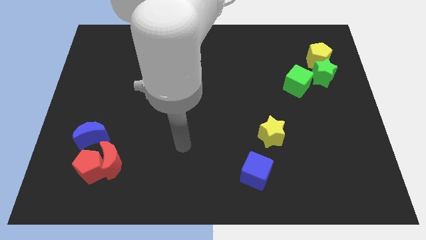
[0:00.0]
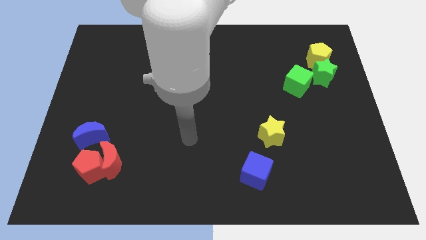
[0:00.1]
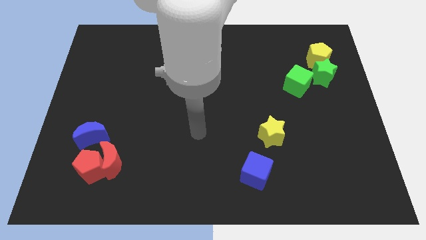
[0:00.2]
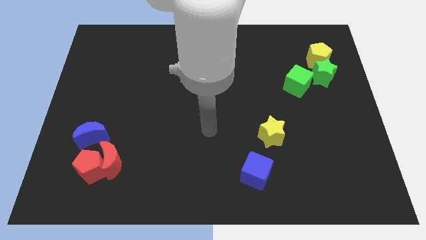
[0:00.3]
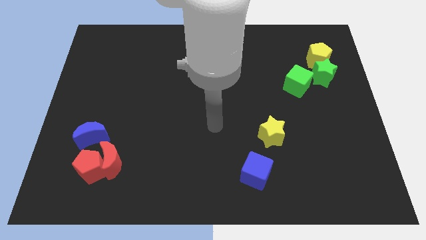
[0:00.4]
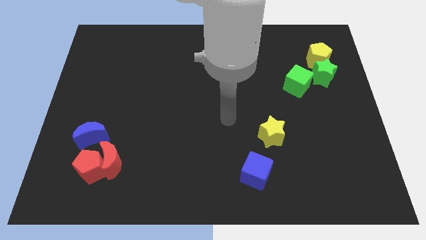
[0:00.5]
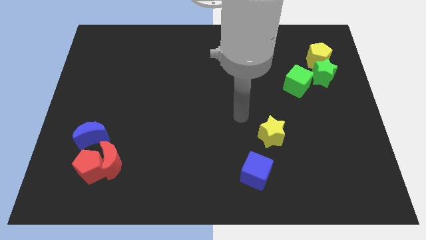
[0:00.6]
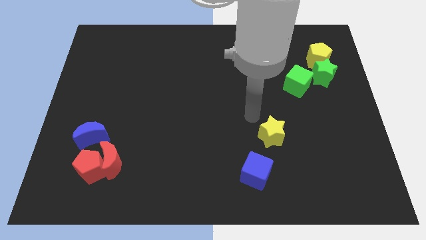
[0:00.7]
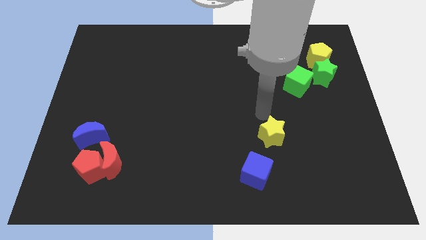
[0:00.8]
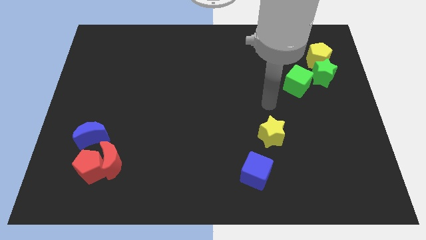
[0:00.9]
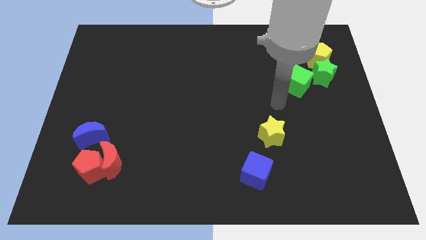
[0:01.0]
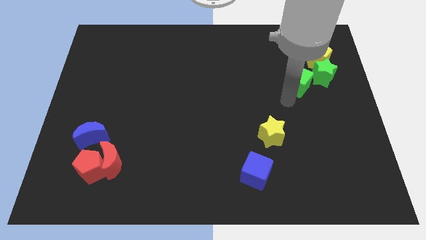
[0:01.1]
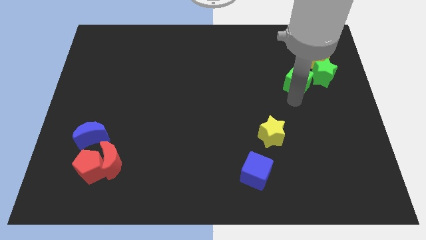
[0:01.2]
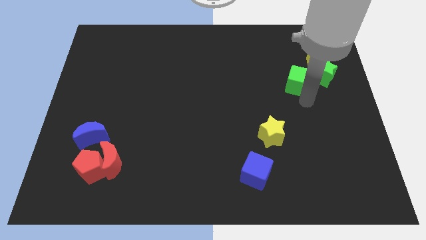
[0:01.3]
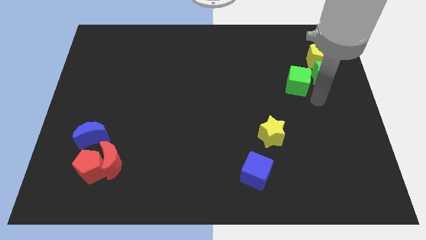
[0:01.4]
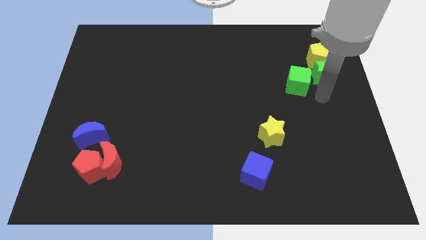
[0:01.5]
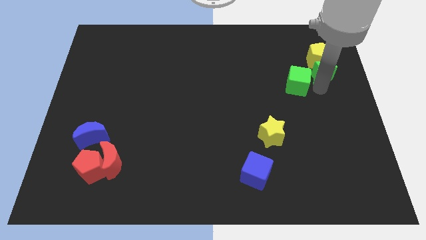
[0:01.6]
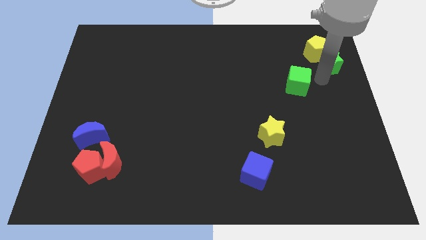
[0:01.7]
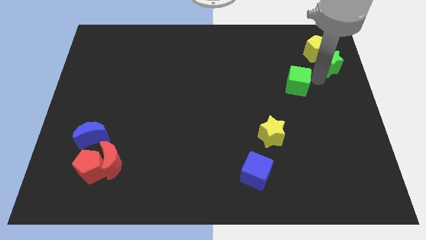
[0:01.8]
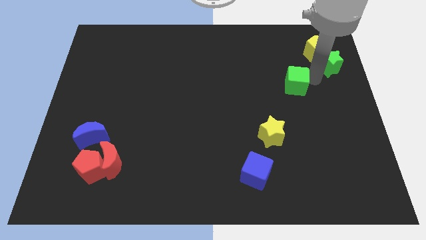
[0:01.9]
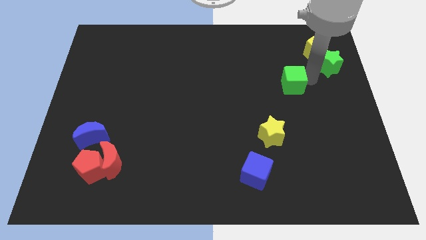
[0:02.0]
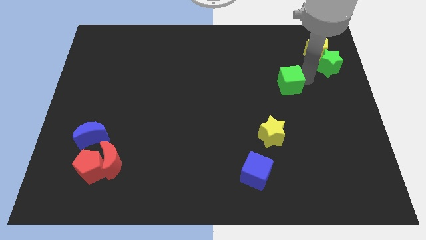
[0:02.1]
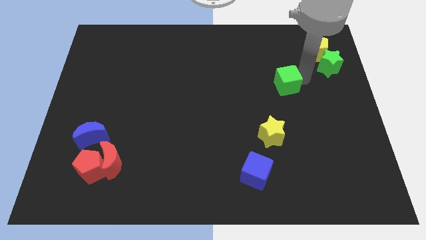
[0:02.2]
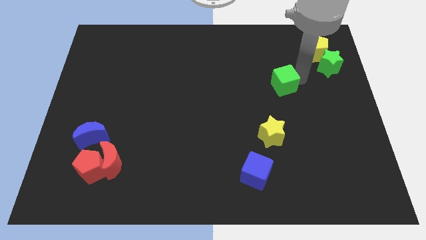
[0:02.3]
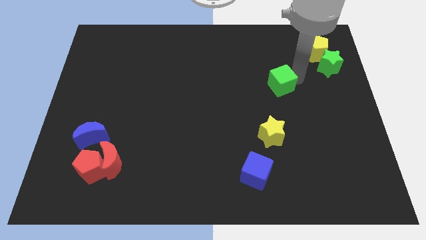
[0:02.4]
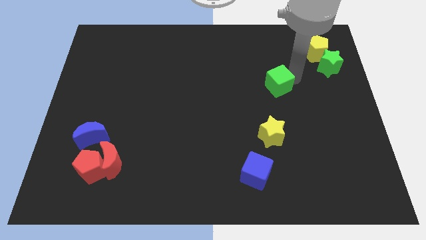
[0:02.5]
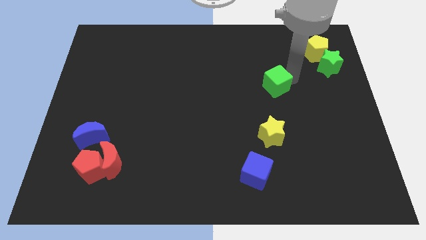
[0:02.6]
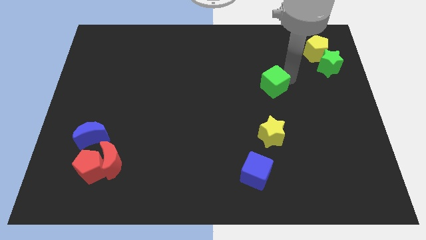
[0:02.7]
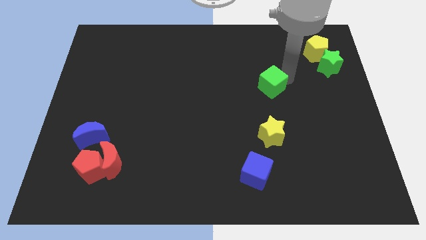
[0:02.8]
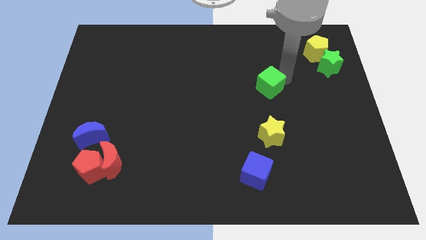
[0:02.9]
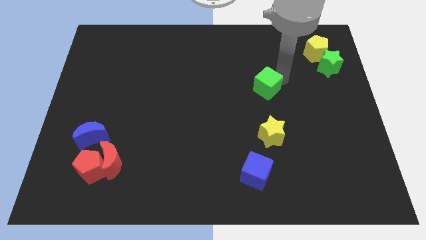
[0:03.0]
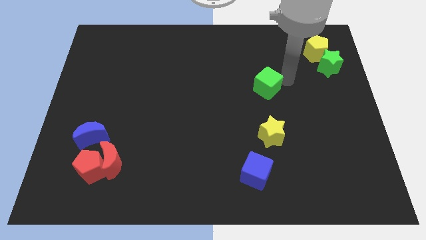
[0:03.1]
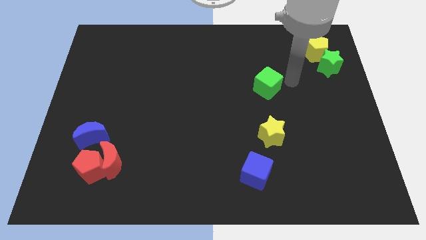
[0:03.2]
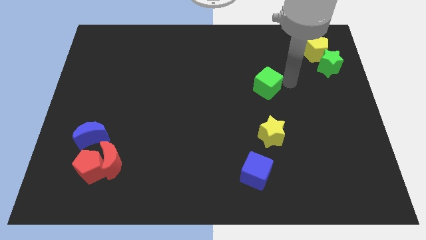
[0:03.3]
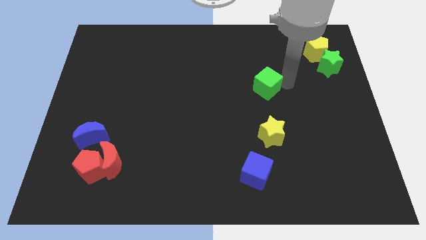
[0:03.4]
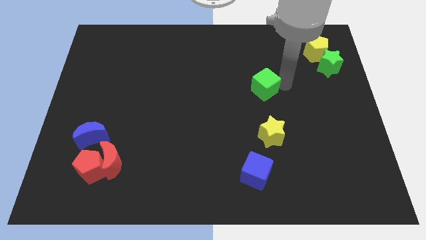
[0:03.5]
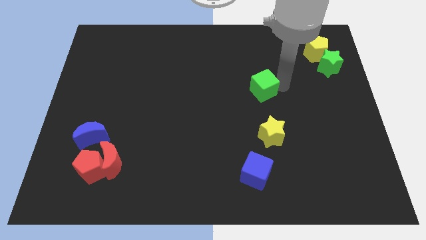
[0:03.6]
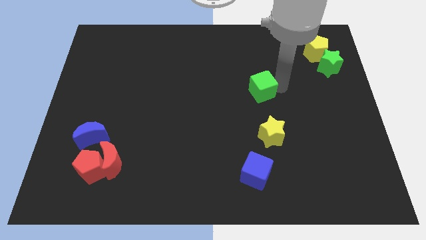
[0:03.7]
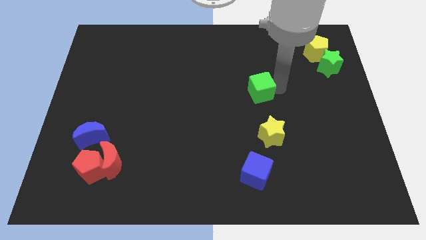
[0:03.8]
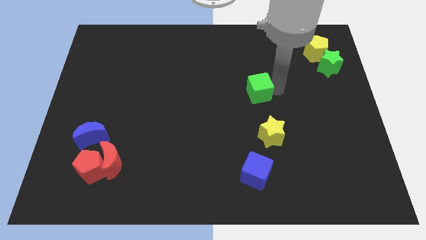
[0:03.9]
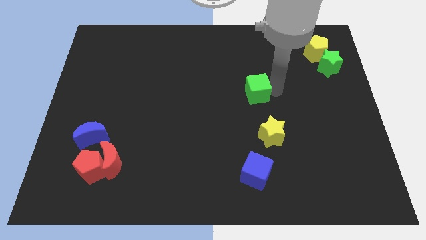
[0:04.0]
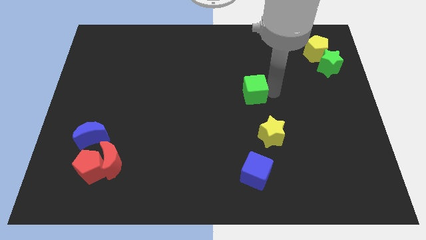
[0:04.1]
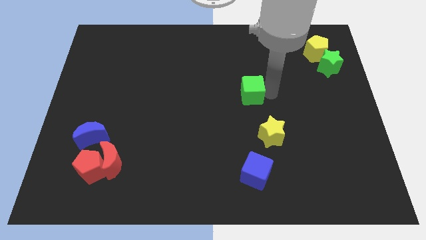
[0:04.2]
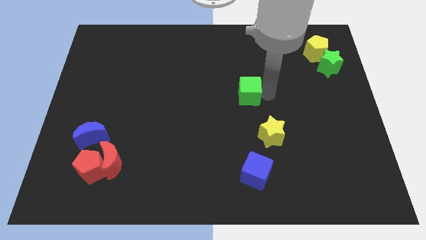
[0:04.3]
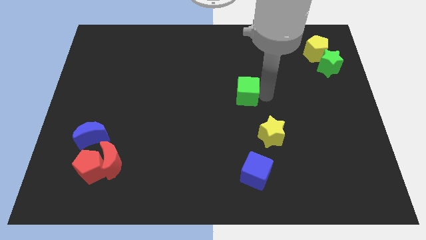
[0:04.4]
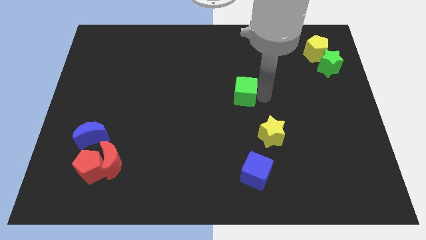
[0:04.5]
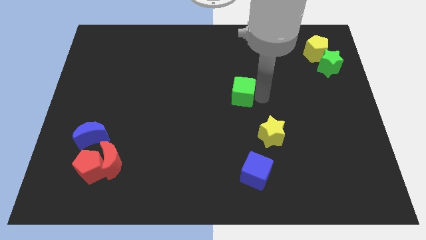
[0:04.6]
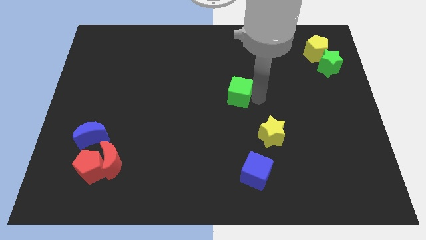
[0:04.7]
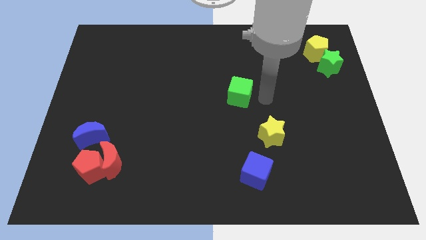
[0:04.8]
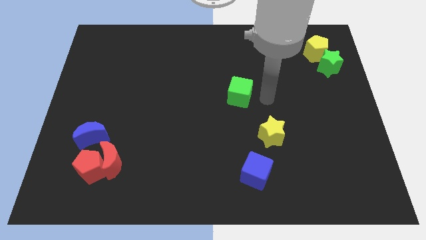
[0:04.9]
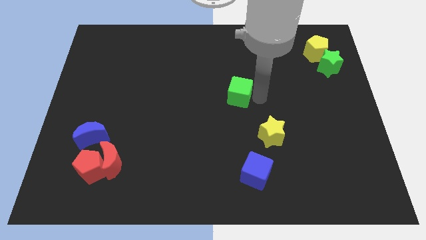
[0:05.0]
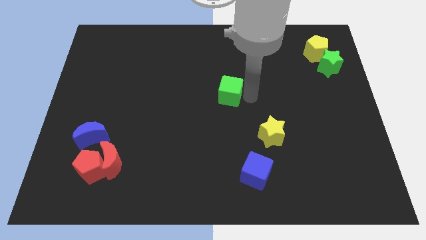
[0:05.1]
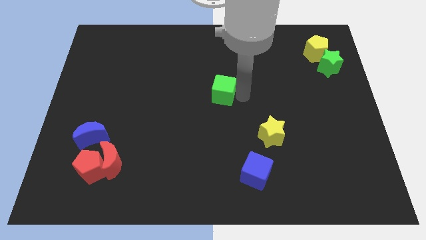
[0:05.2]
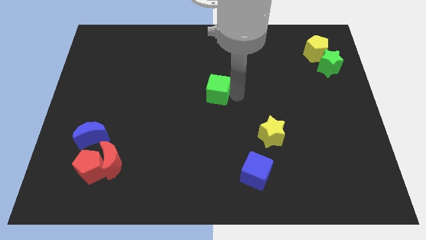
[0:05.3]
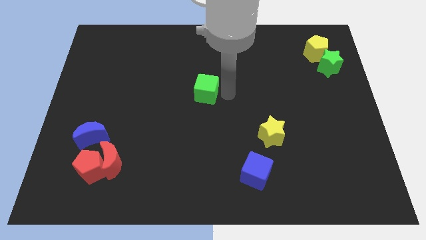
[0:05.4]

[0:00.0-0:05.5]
move the green cube left

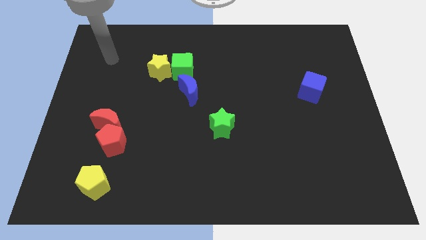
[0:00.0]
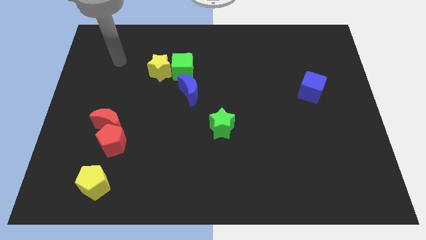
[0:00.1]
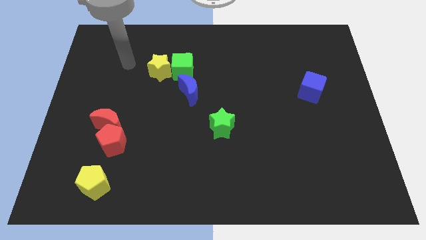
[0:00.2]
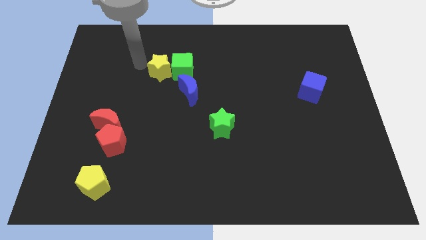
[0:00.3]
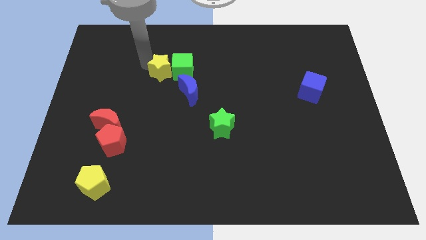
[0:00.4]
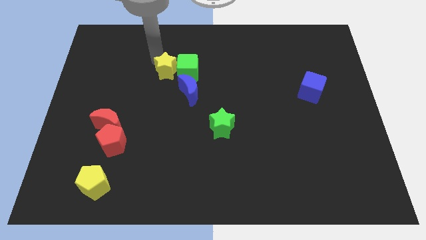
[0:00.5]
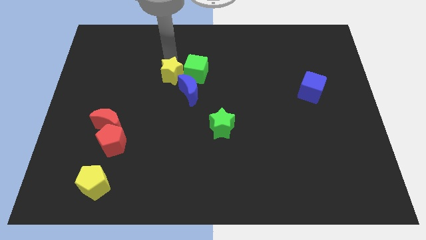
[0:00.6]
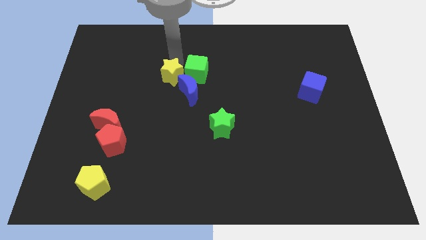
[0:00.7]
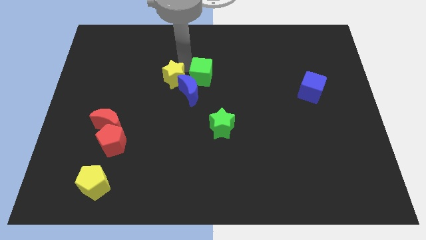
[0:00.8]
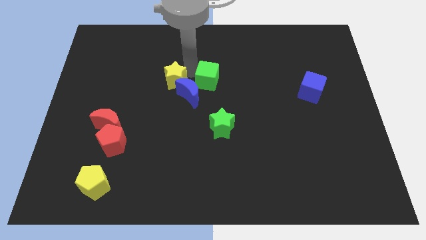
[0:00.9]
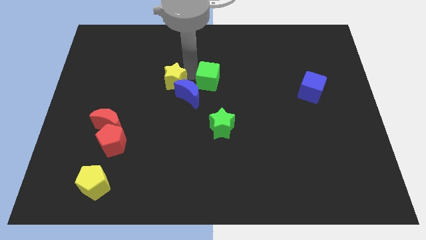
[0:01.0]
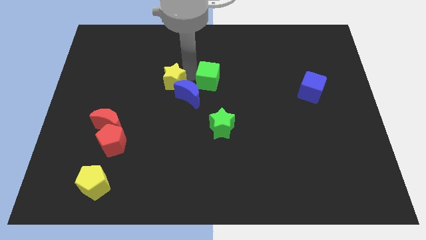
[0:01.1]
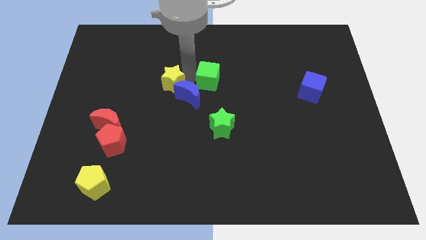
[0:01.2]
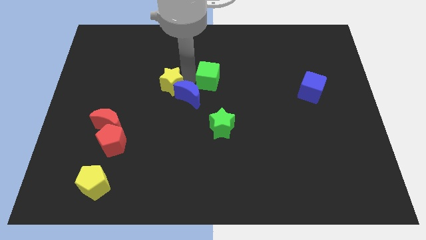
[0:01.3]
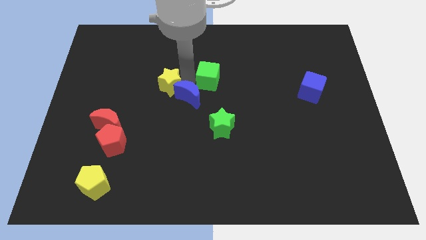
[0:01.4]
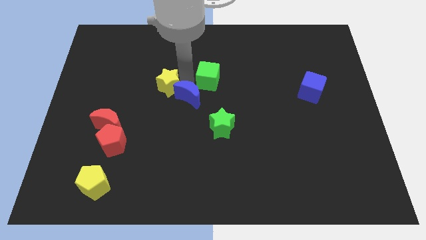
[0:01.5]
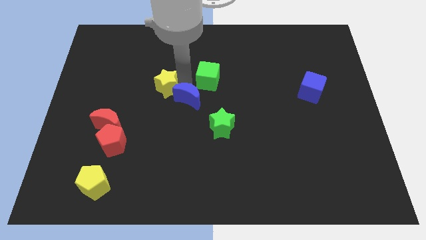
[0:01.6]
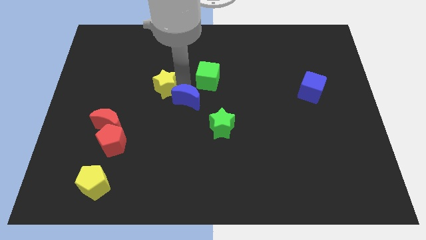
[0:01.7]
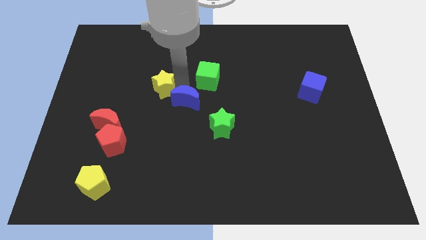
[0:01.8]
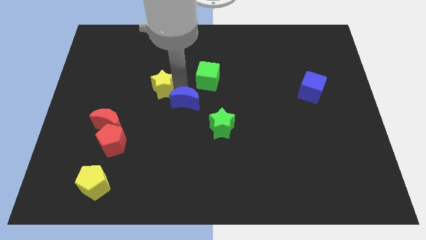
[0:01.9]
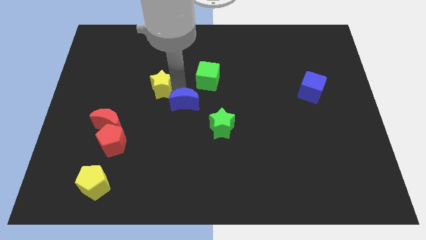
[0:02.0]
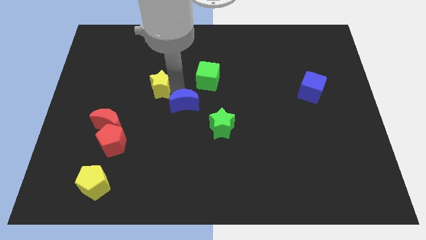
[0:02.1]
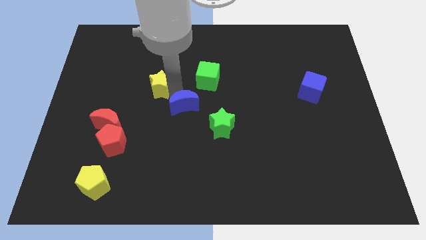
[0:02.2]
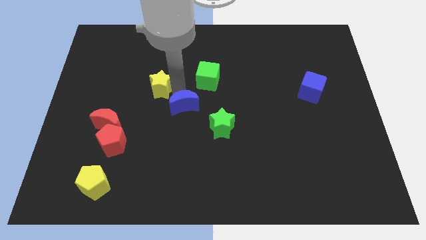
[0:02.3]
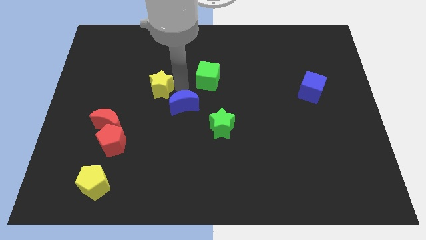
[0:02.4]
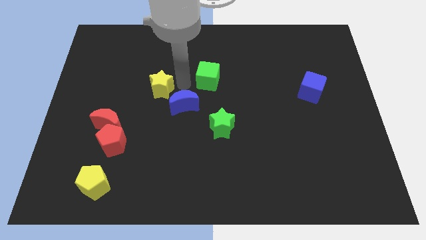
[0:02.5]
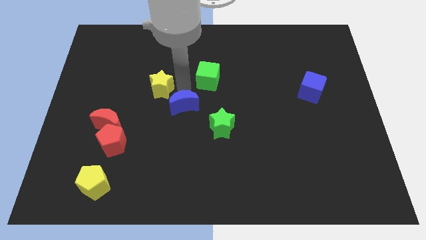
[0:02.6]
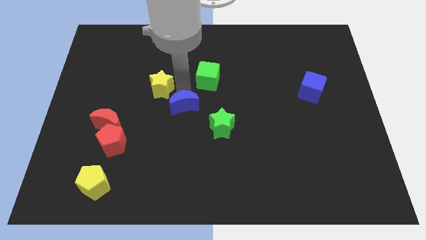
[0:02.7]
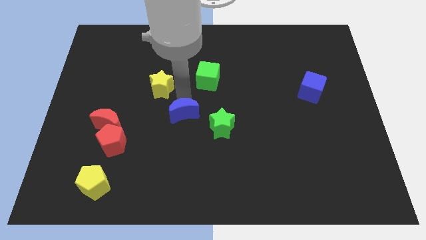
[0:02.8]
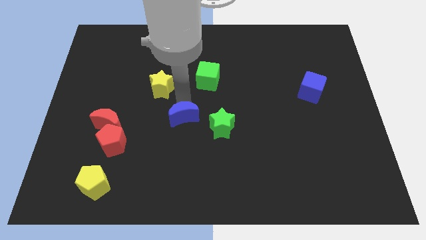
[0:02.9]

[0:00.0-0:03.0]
move the blue moon down a little bit
